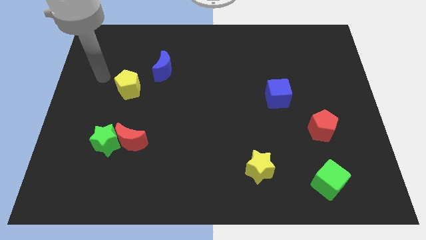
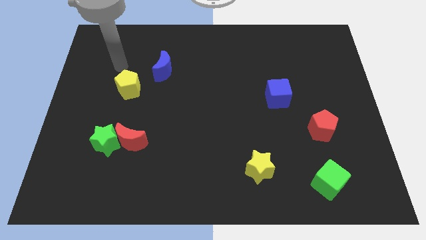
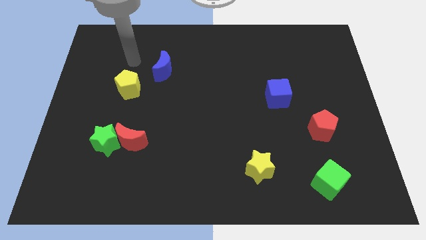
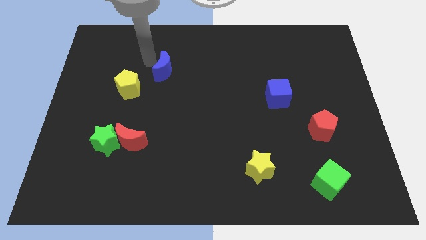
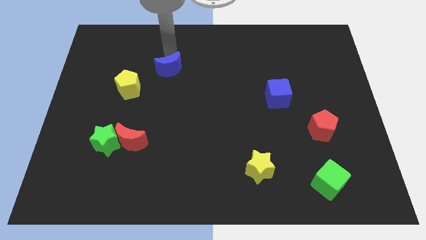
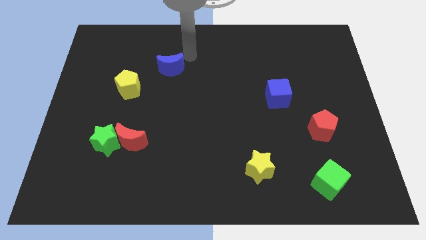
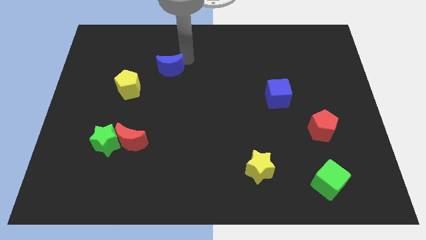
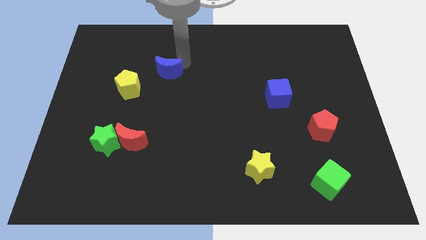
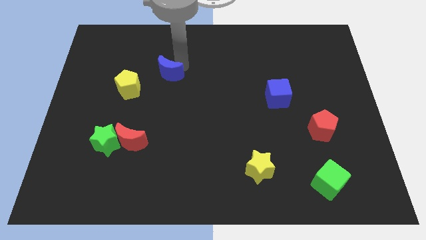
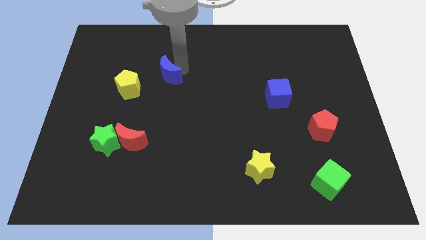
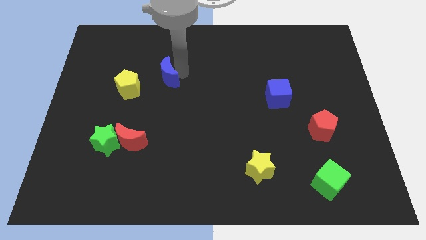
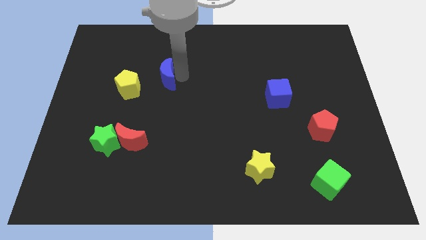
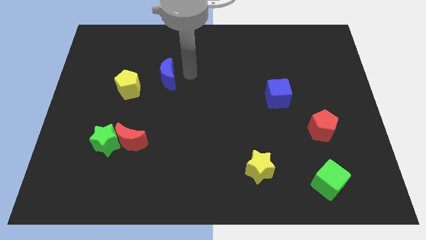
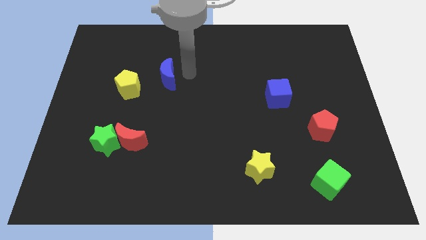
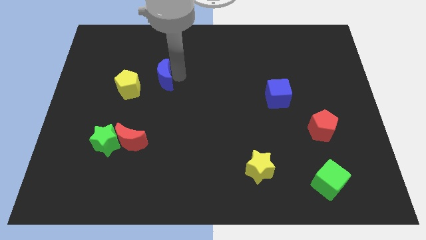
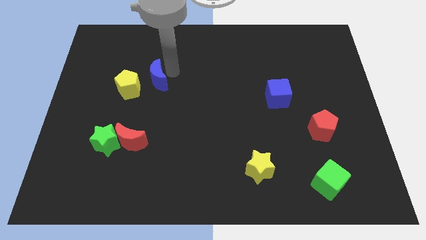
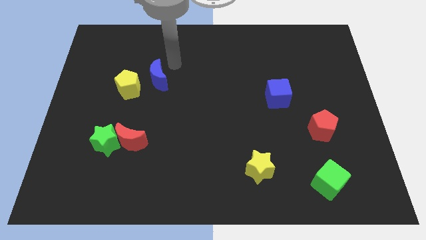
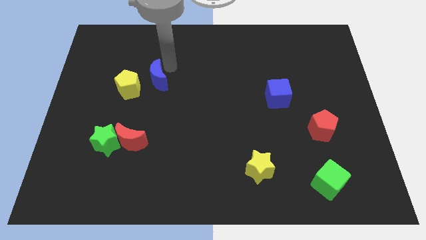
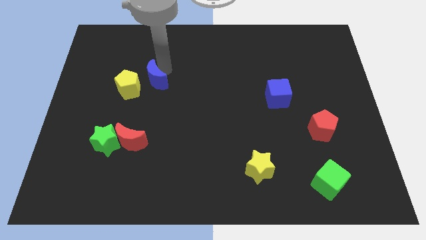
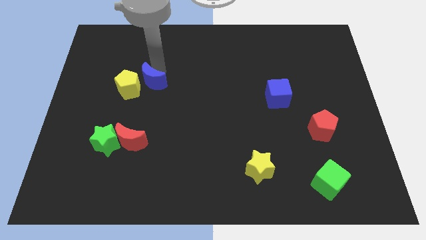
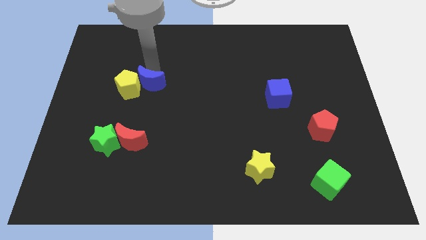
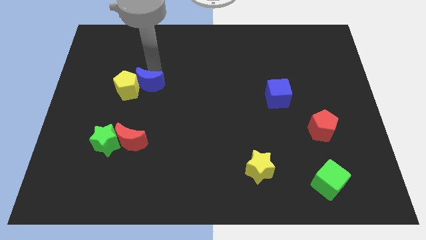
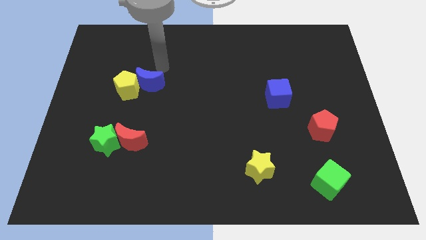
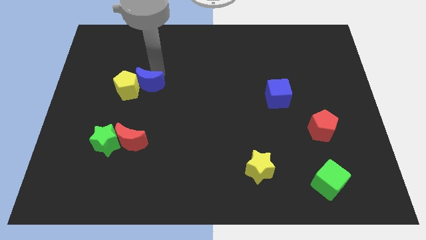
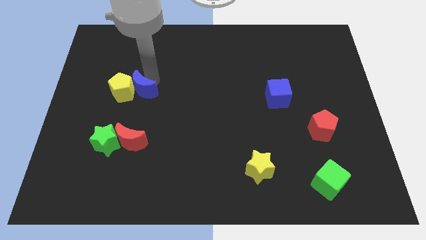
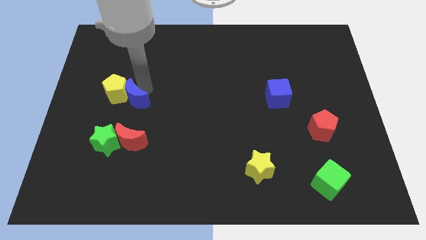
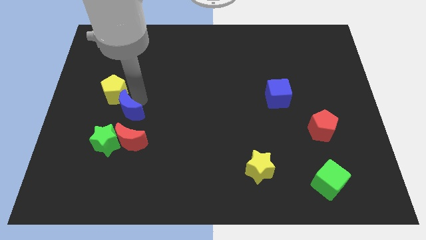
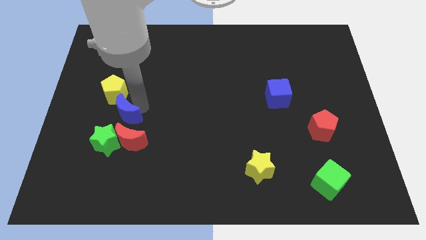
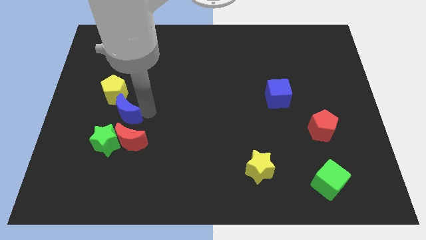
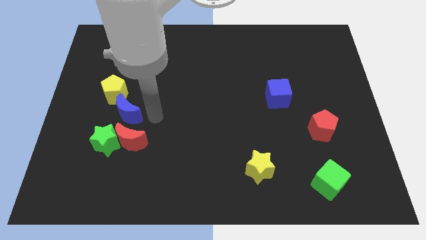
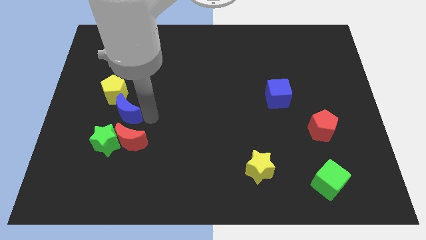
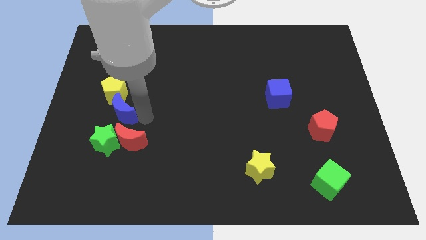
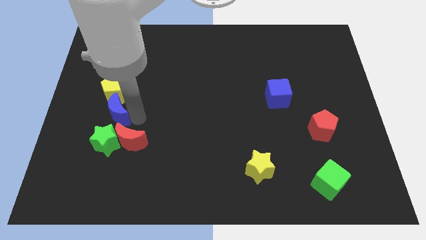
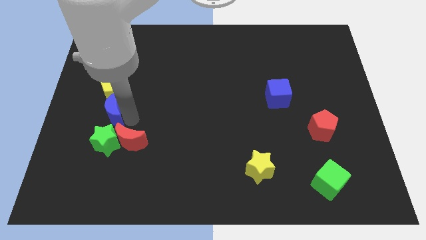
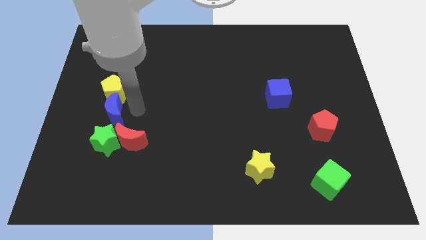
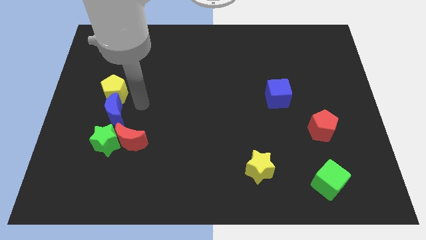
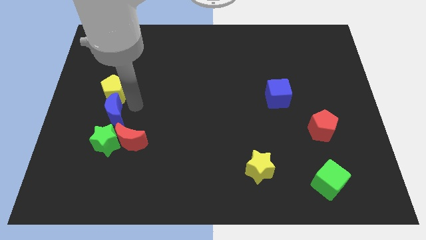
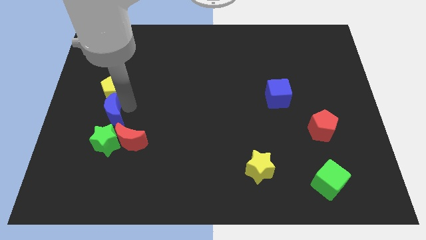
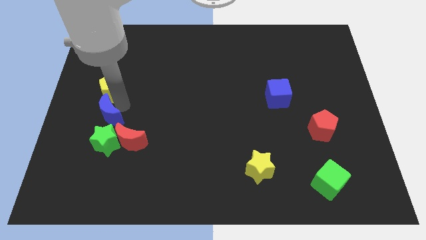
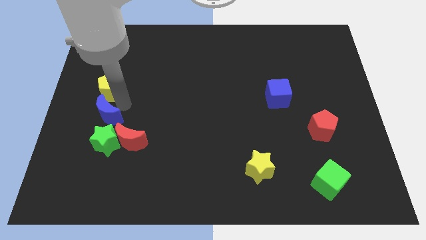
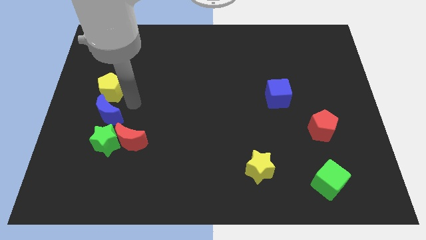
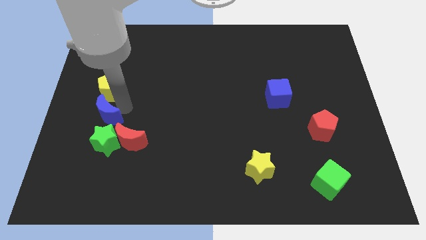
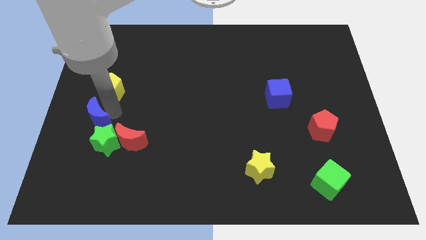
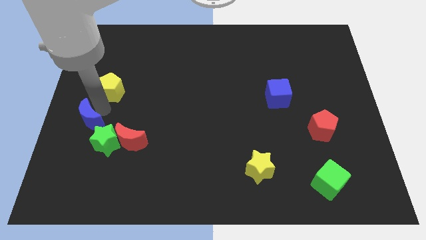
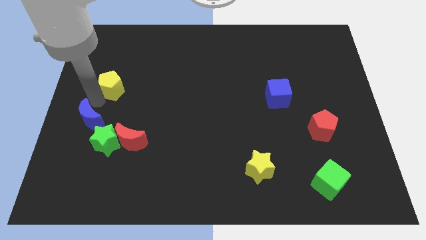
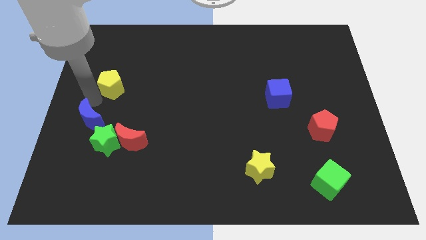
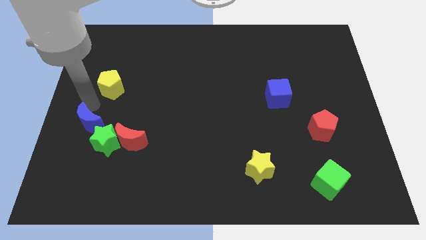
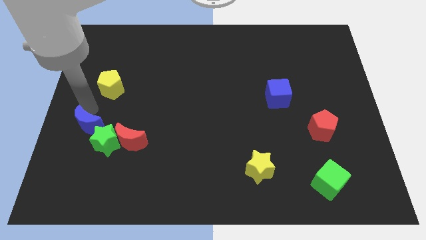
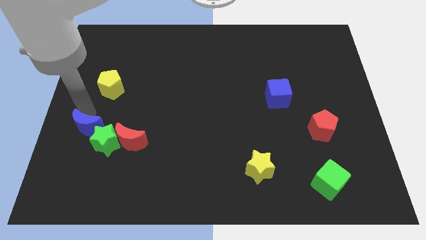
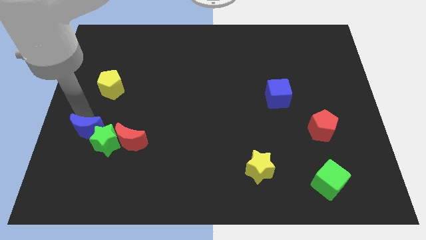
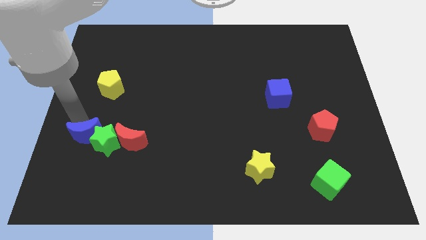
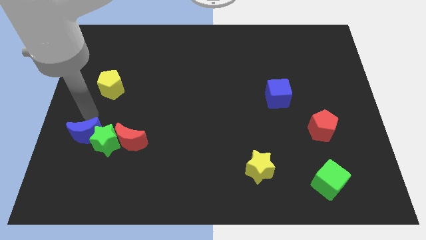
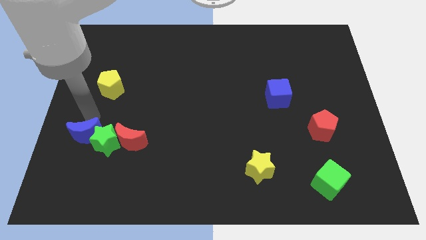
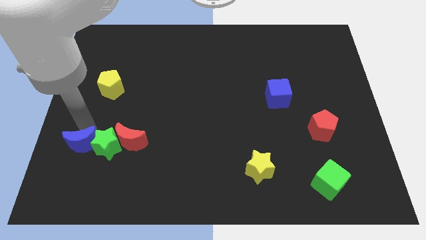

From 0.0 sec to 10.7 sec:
push the blue moon to the bottom left side of the green star

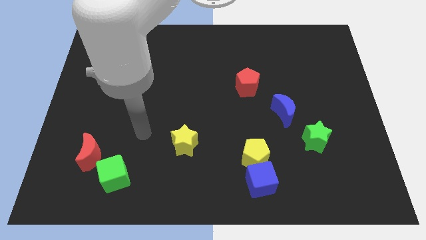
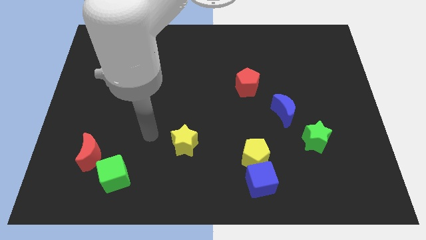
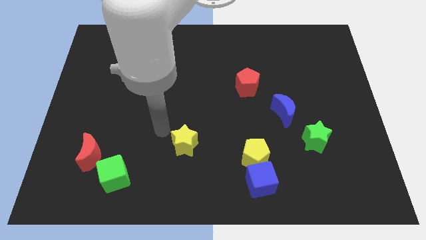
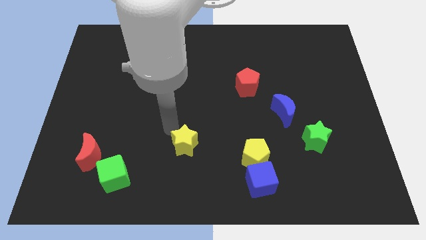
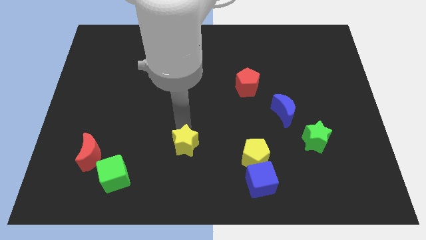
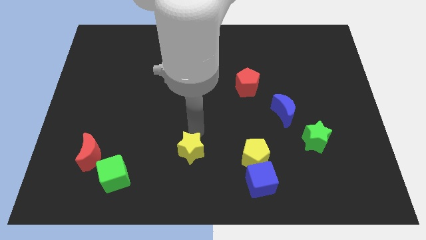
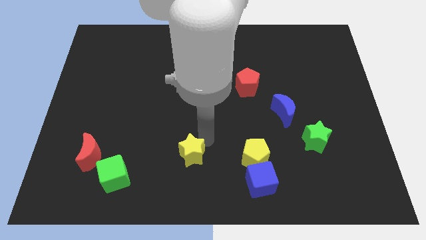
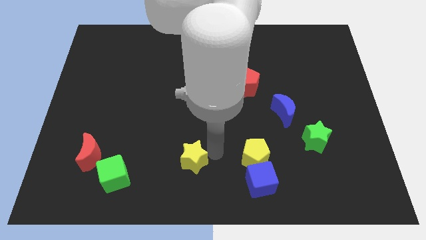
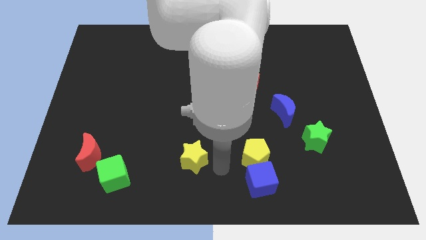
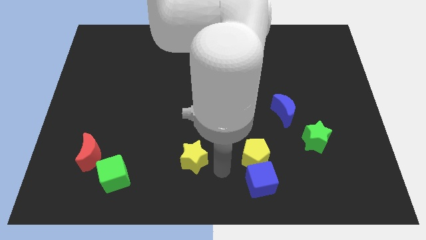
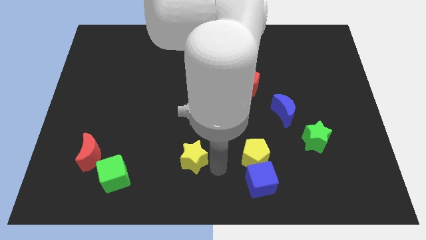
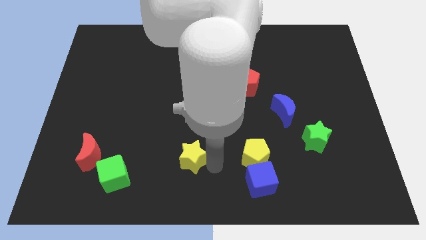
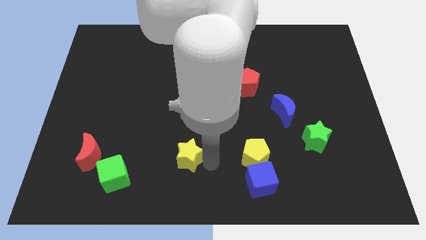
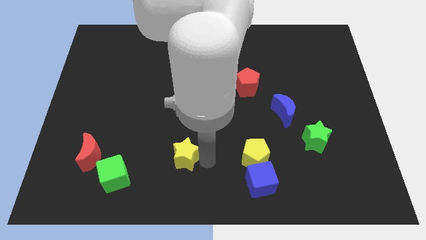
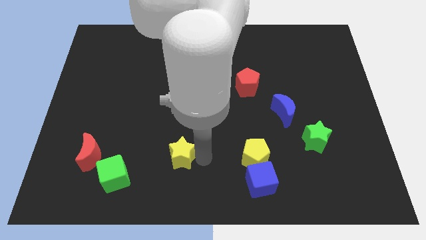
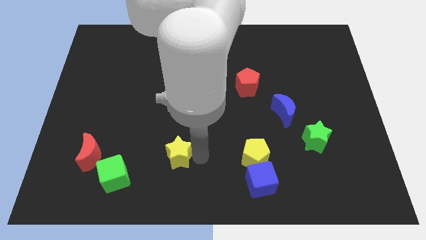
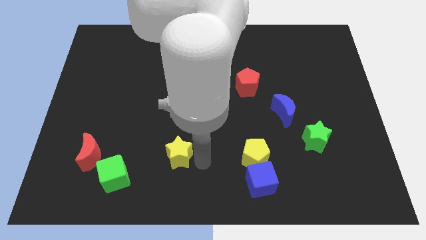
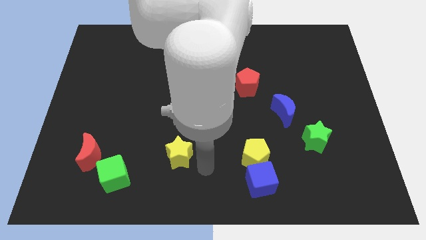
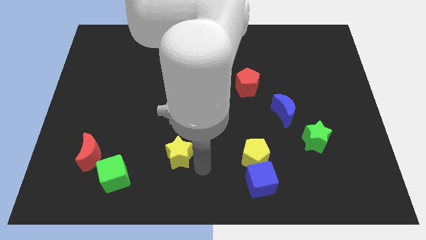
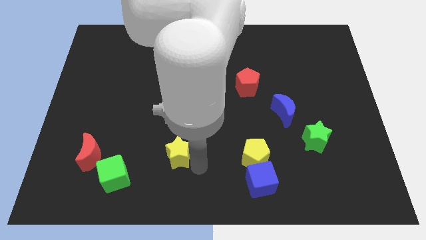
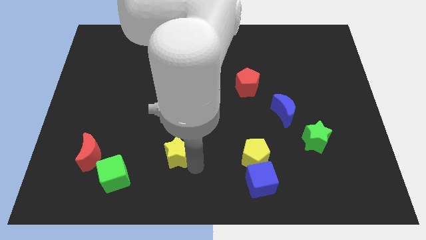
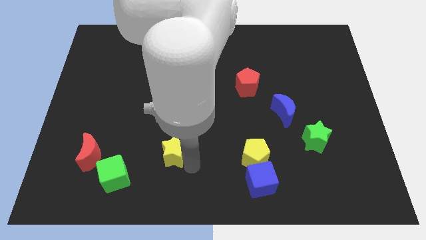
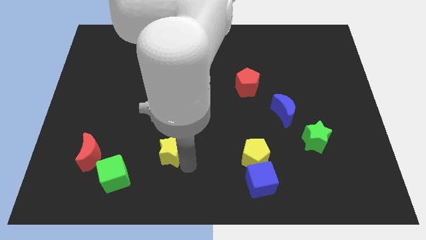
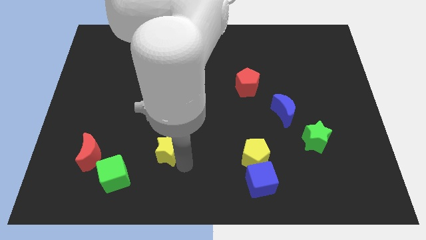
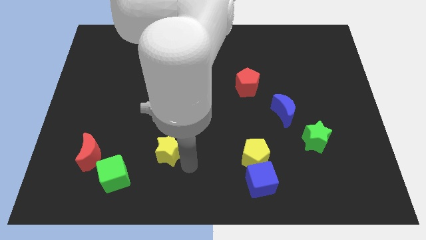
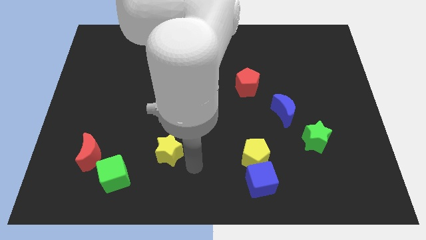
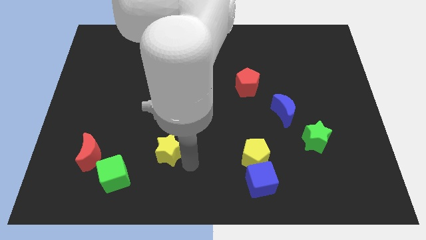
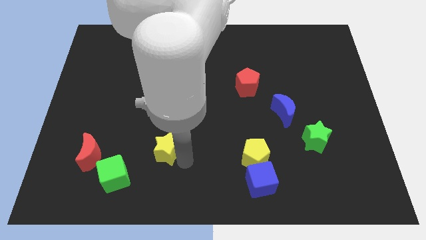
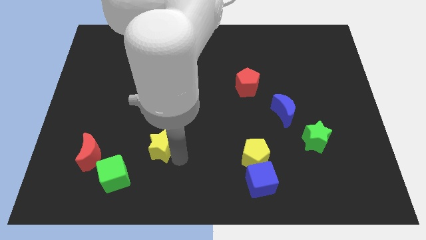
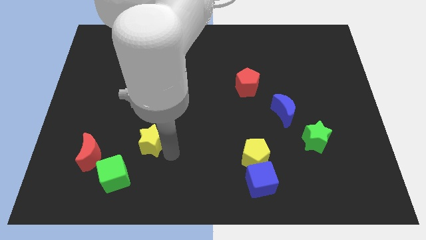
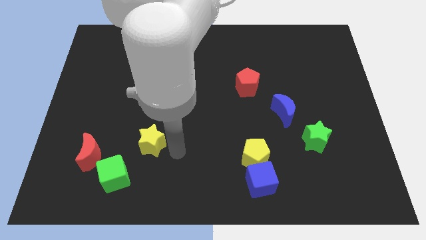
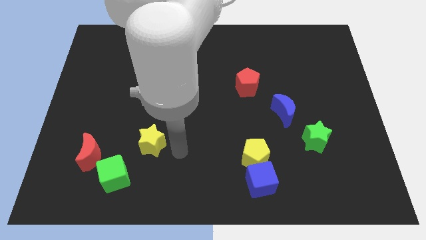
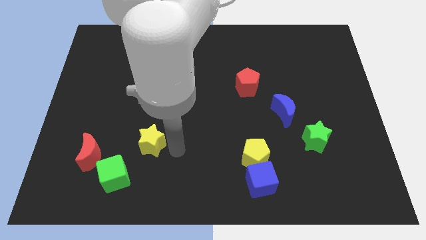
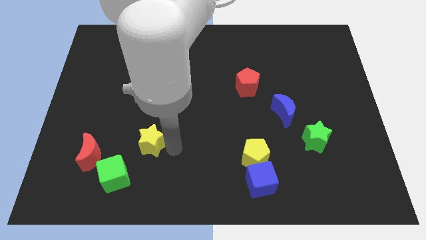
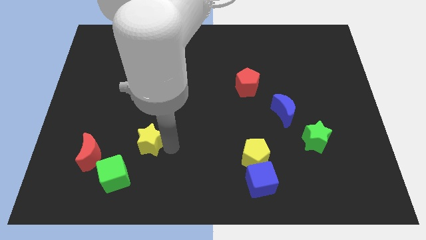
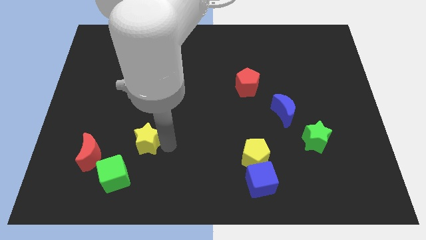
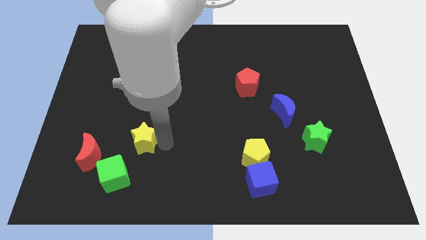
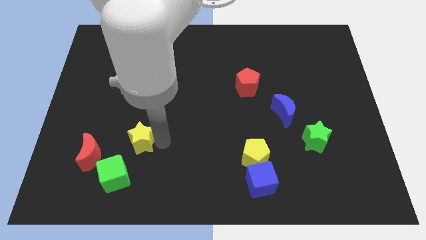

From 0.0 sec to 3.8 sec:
put the yellow star diagonally up and to the right of the red moon
